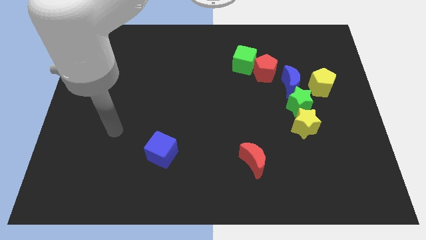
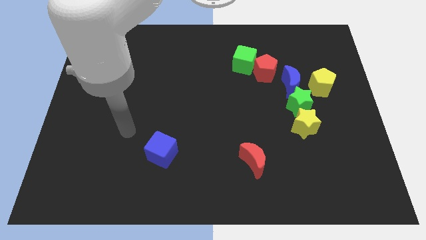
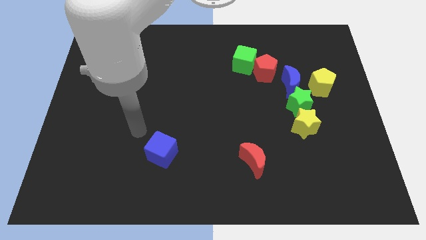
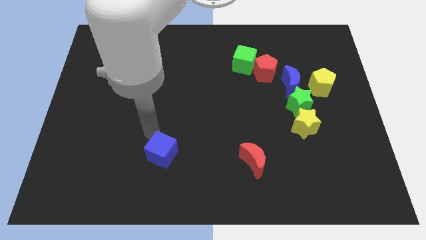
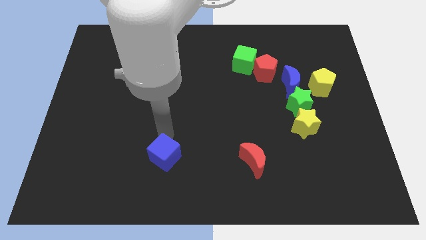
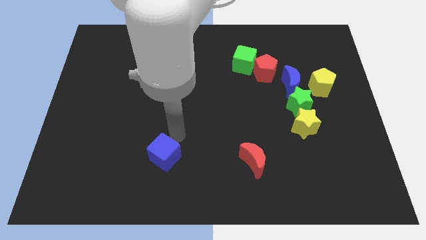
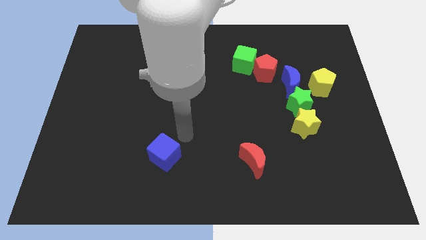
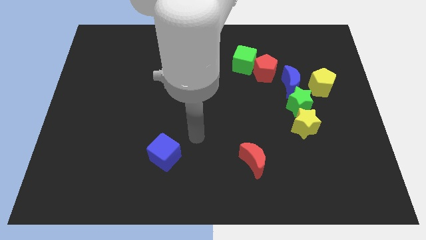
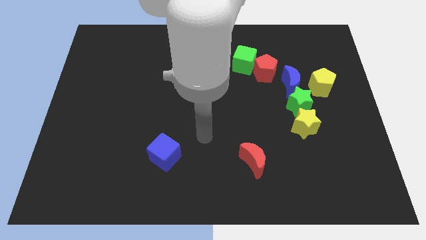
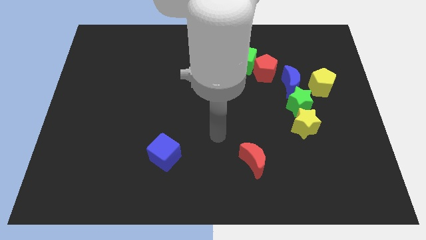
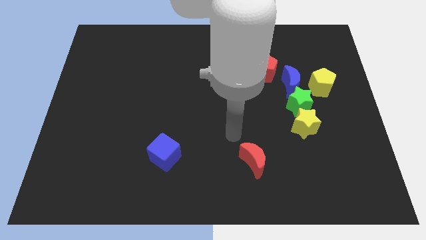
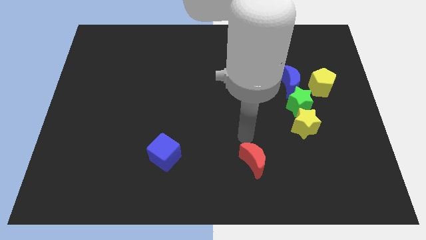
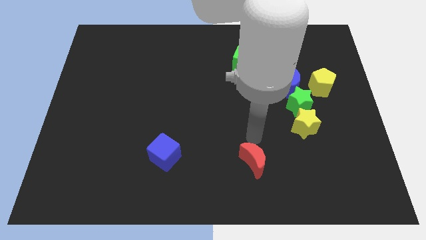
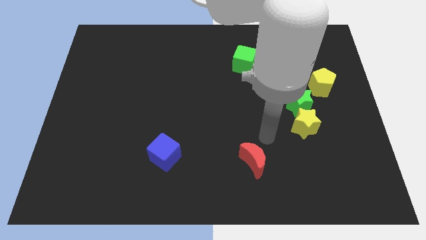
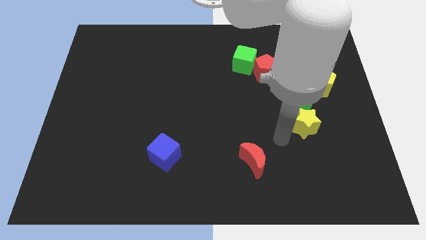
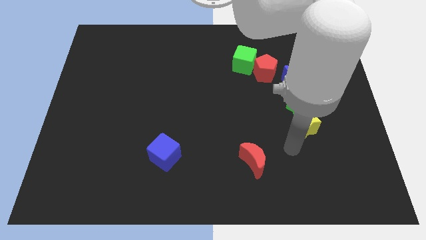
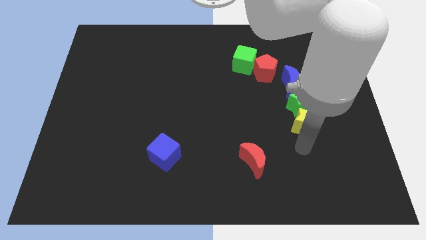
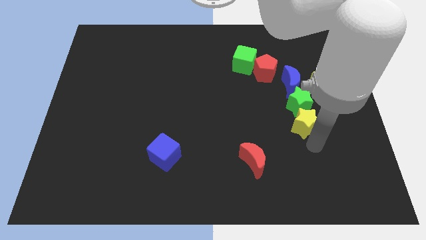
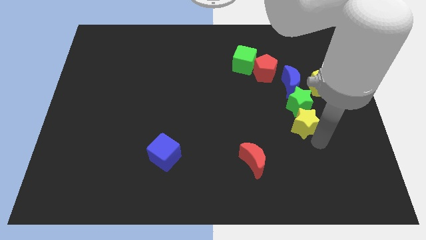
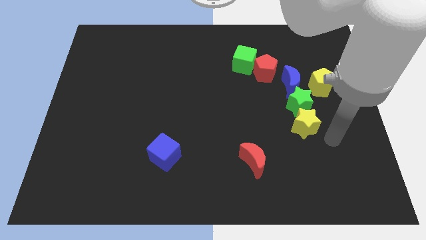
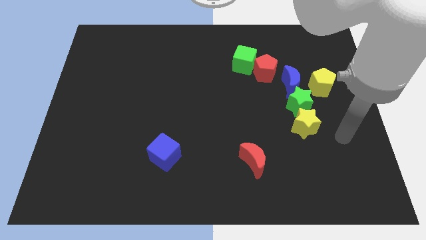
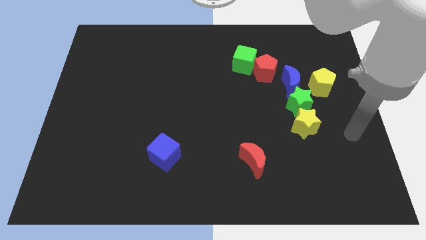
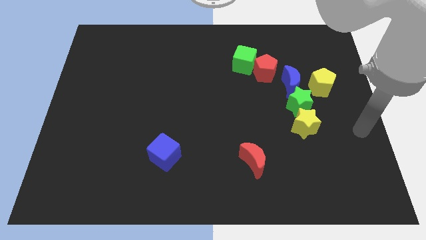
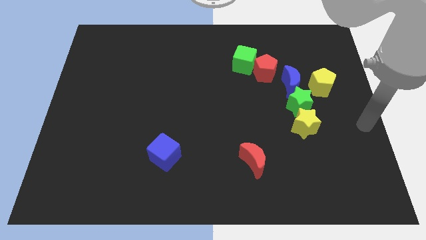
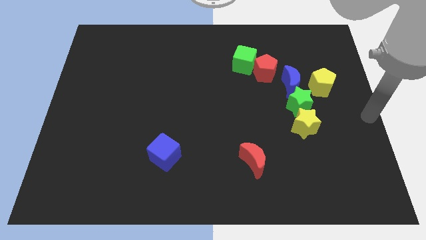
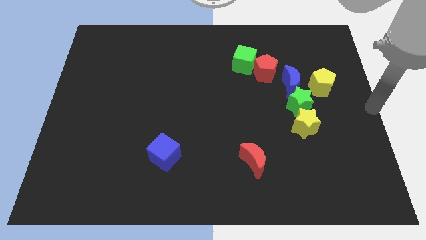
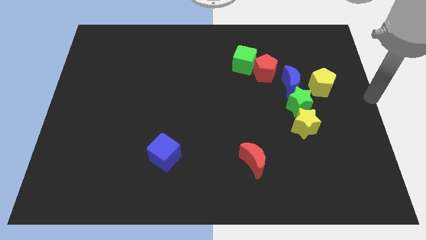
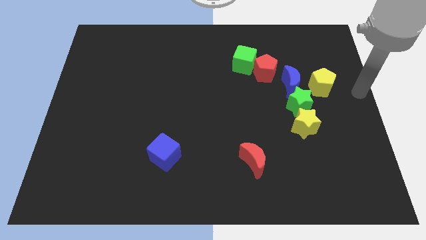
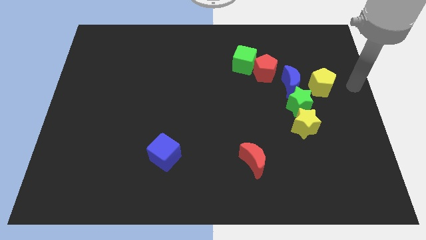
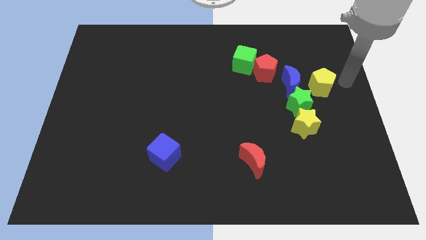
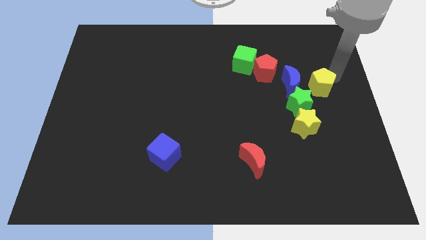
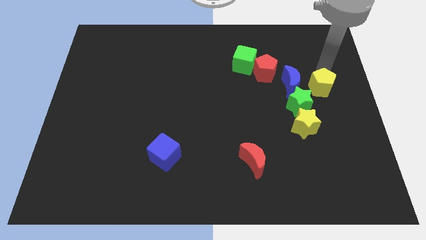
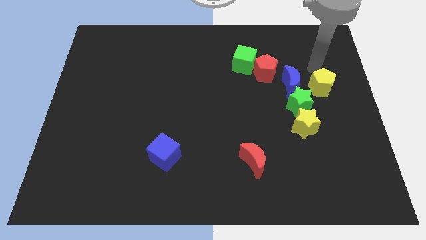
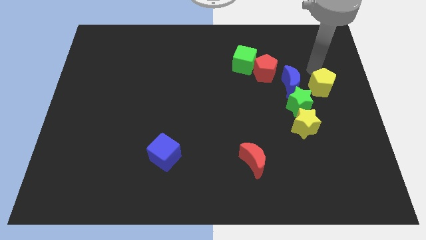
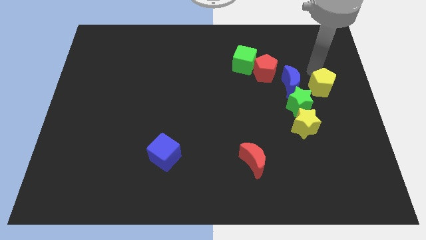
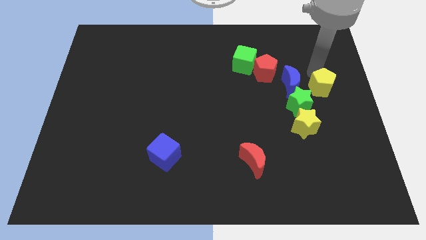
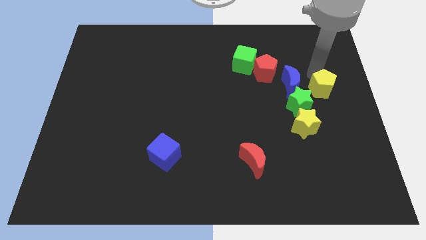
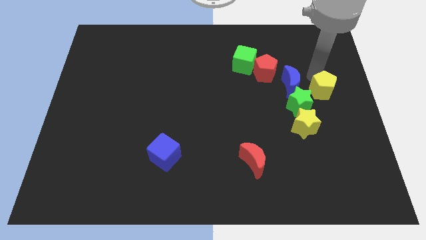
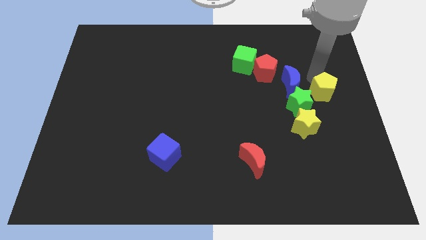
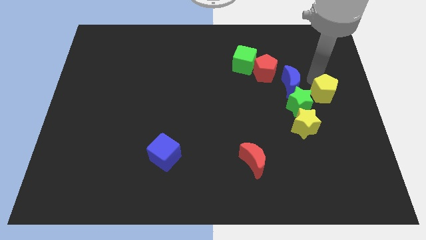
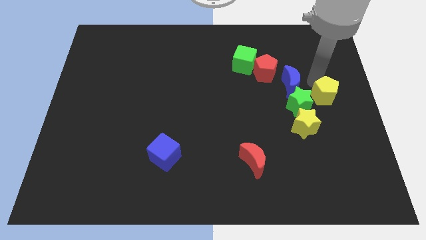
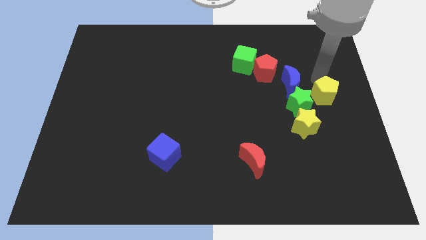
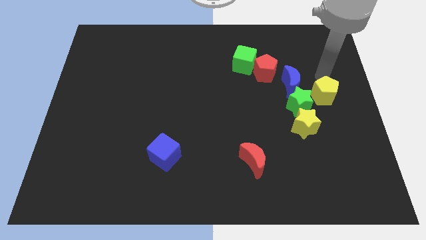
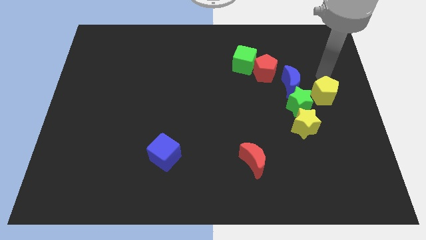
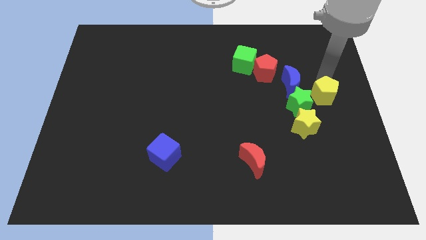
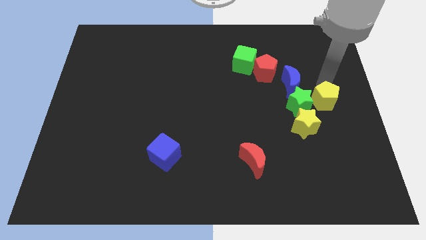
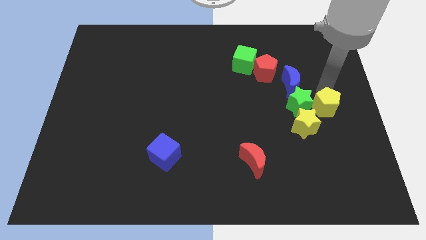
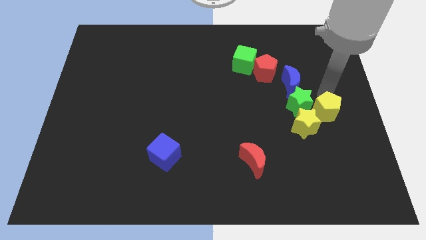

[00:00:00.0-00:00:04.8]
slightly push the yellow pentagon downwards

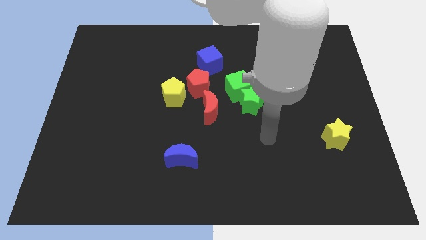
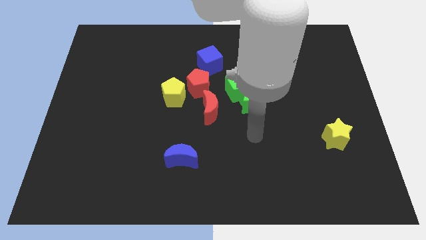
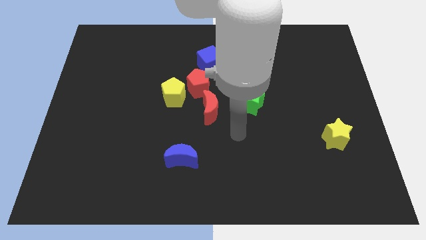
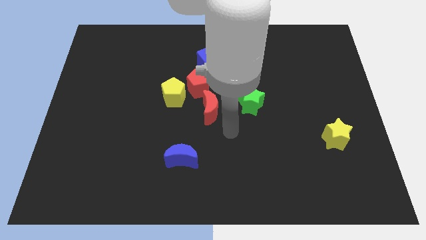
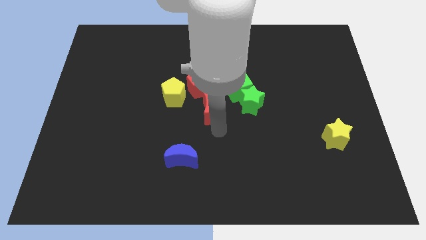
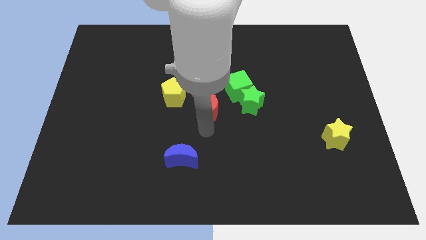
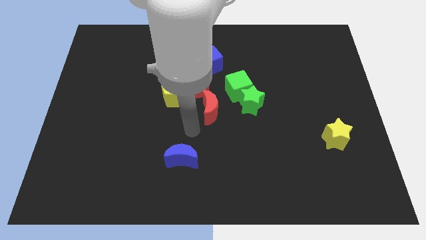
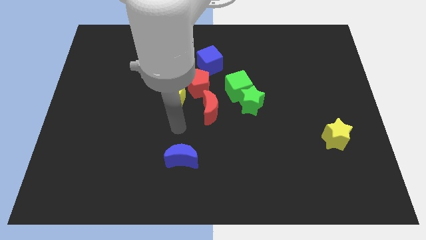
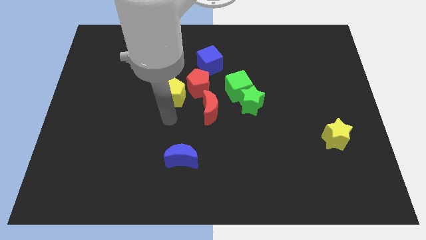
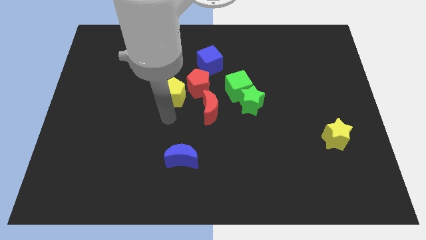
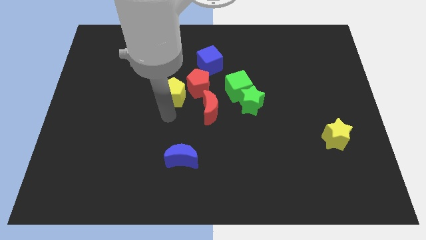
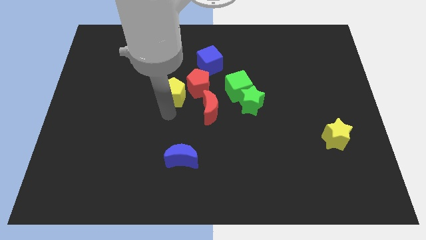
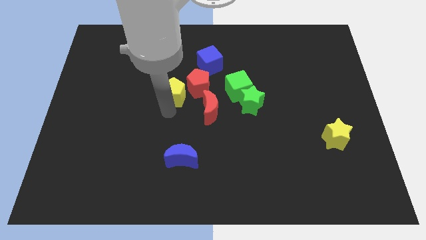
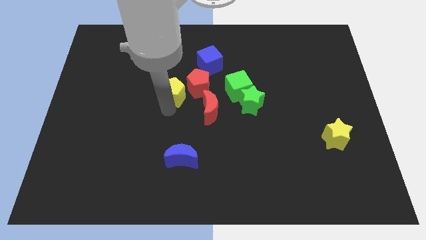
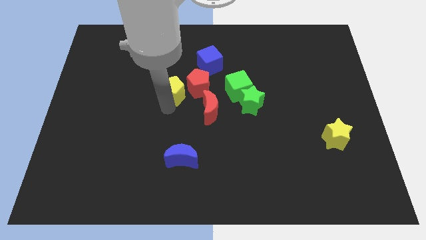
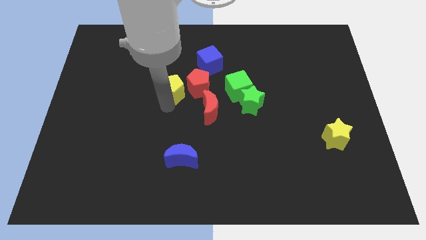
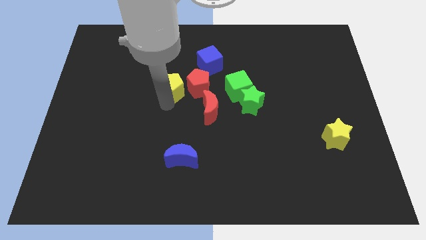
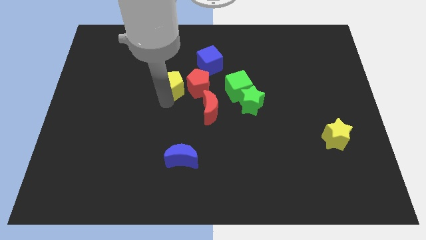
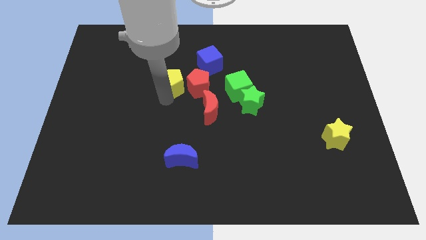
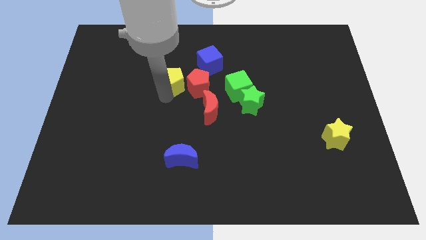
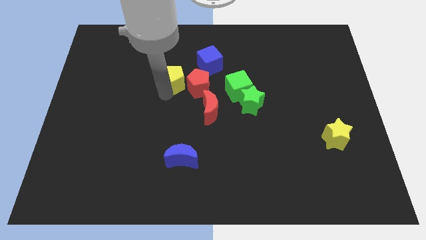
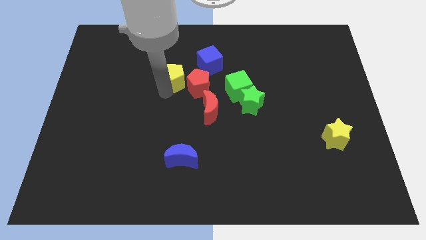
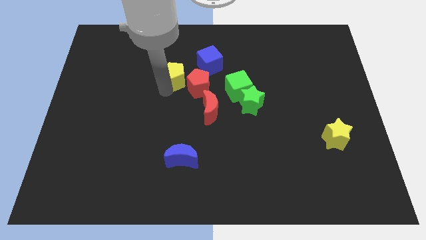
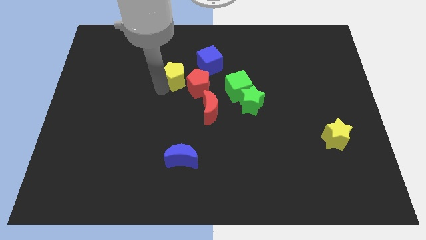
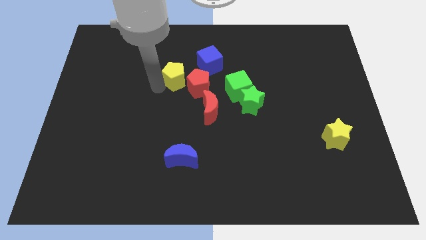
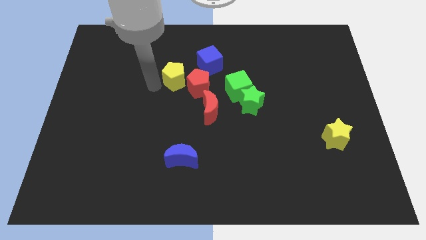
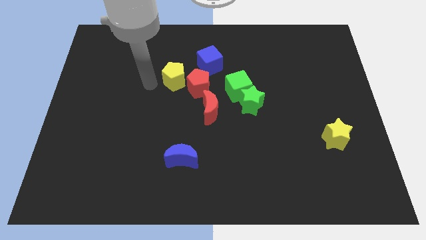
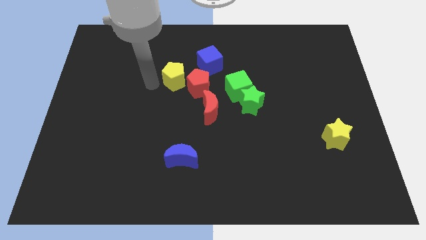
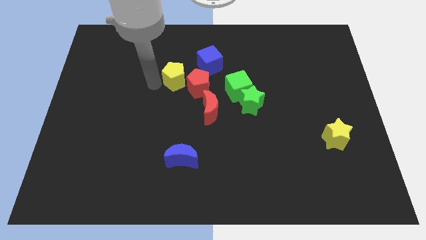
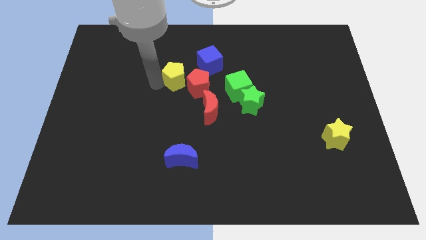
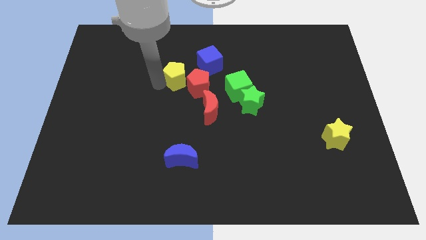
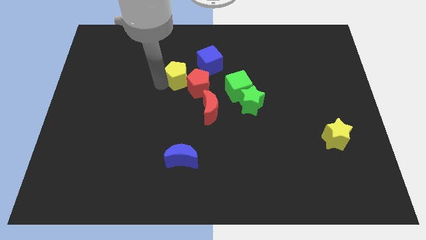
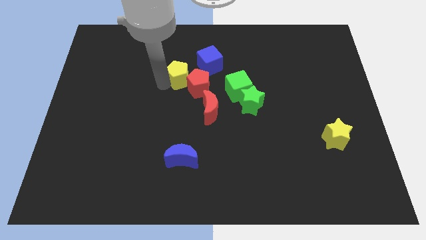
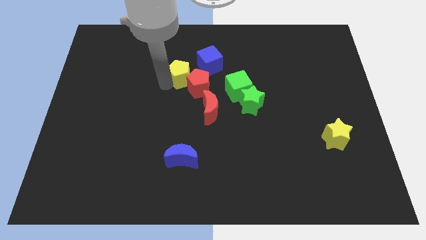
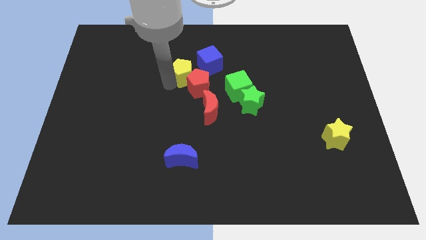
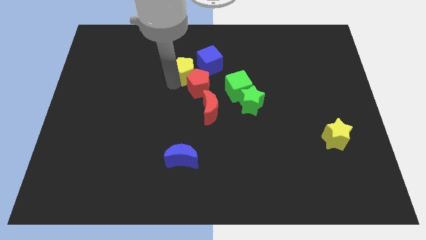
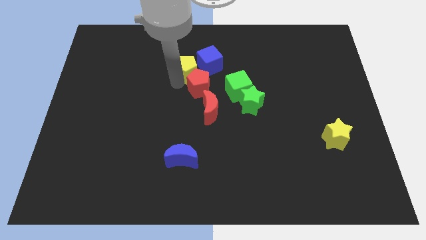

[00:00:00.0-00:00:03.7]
slightly slide the yellow pentagon up and to the right
